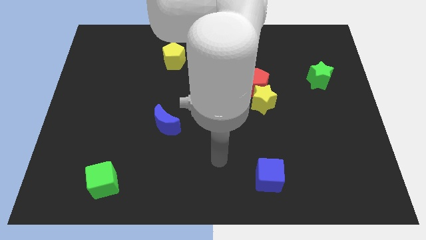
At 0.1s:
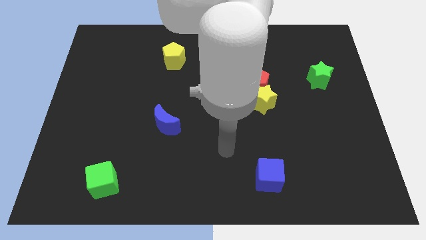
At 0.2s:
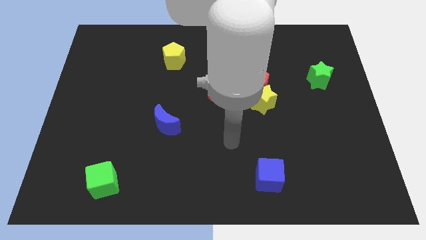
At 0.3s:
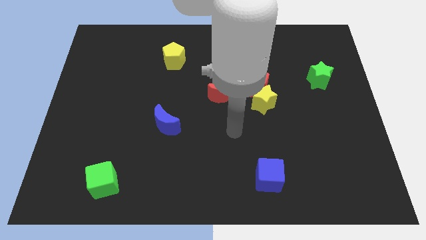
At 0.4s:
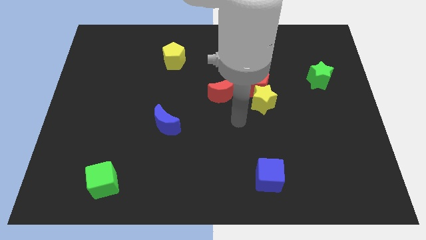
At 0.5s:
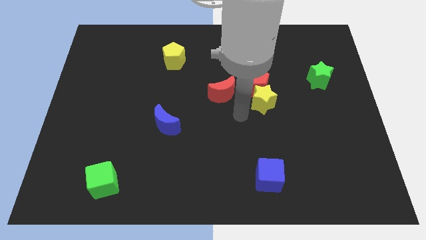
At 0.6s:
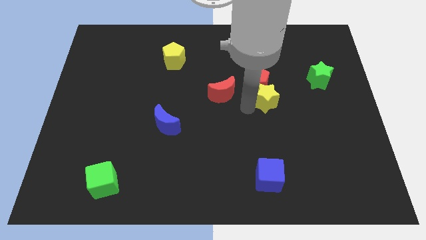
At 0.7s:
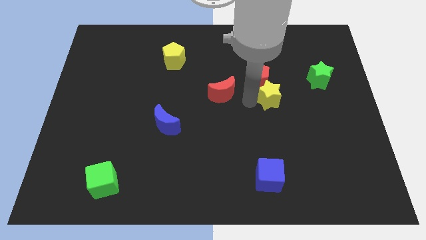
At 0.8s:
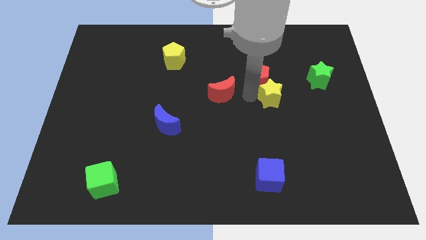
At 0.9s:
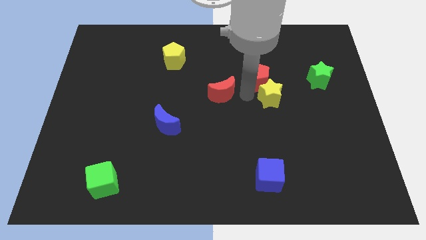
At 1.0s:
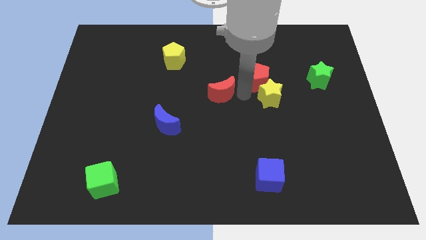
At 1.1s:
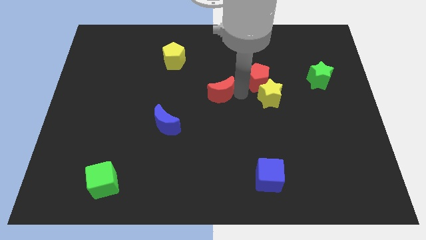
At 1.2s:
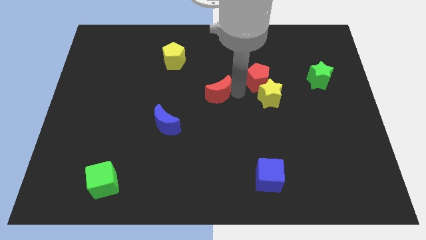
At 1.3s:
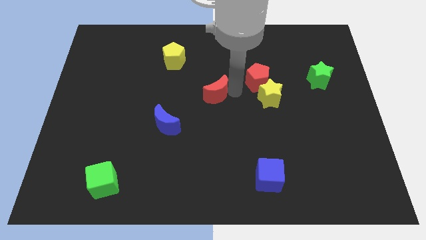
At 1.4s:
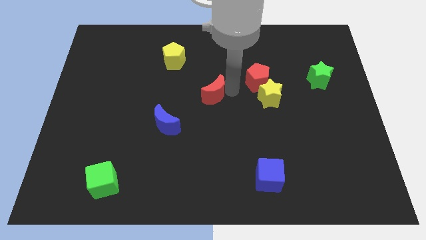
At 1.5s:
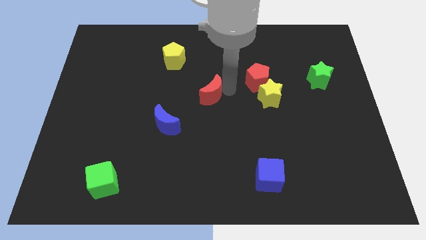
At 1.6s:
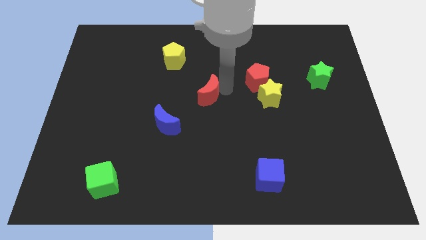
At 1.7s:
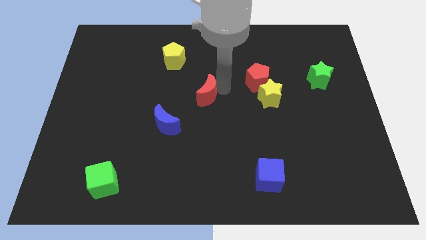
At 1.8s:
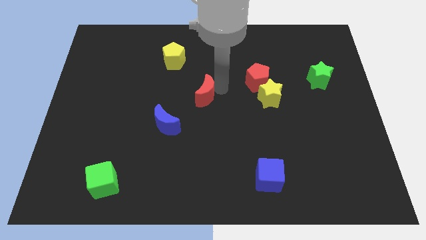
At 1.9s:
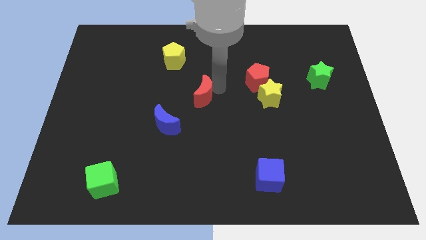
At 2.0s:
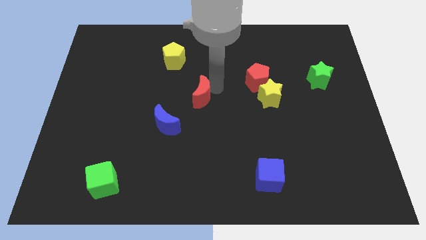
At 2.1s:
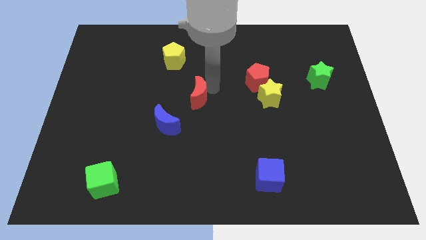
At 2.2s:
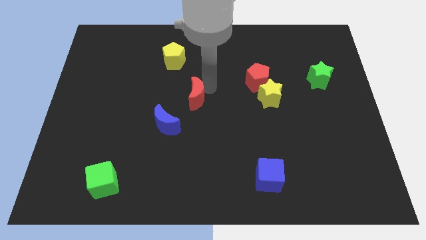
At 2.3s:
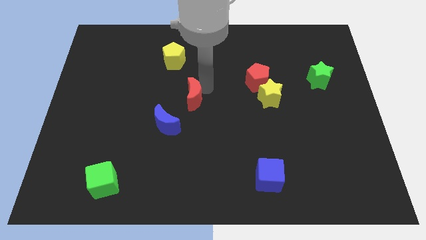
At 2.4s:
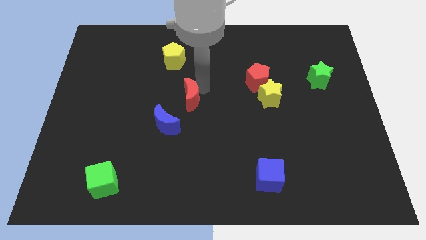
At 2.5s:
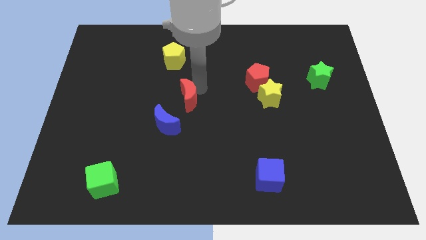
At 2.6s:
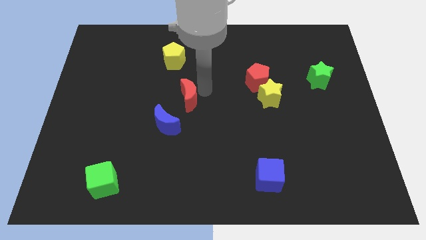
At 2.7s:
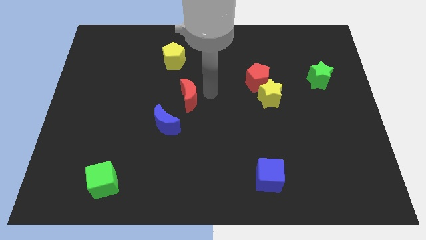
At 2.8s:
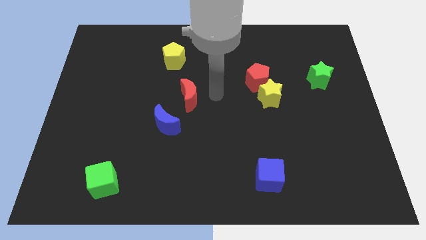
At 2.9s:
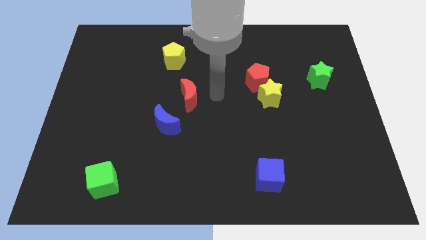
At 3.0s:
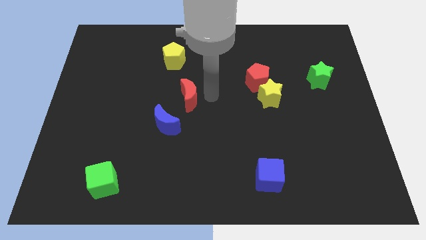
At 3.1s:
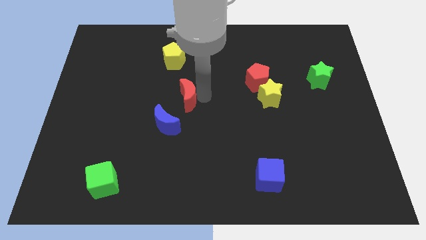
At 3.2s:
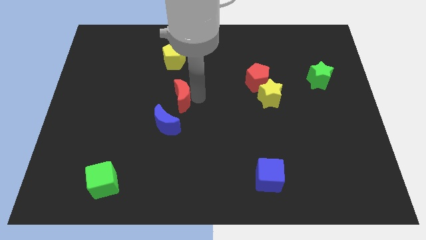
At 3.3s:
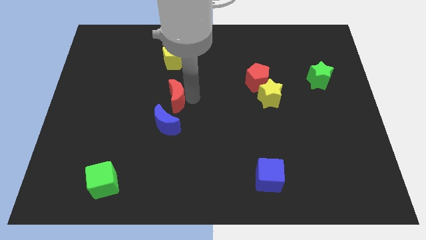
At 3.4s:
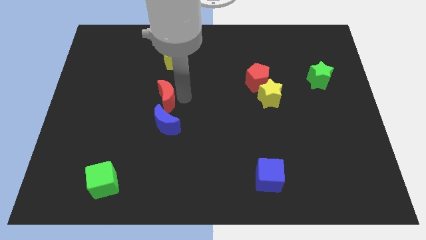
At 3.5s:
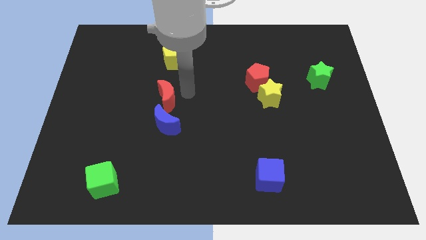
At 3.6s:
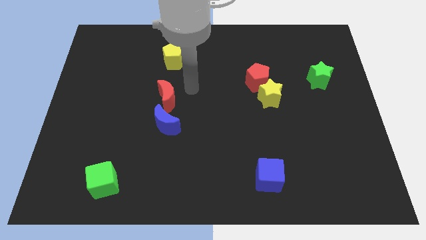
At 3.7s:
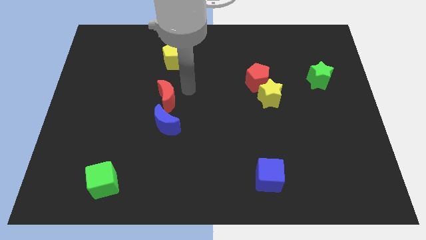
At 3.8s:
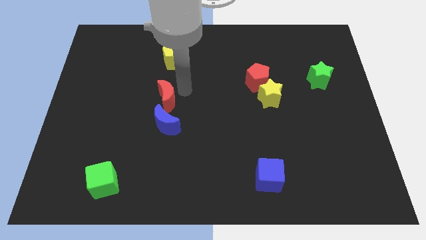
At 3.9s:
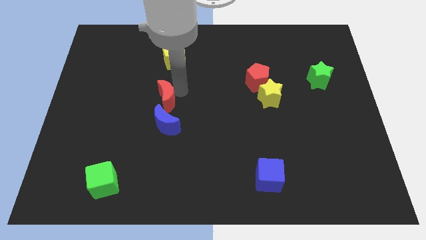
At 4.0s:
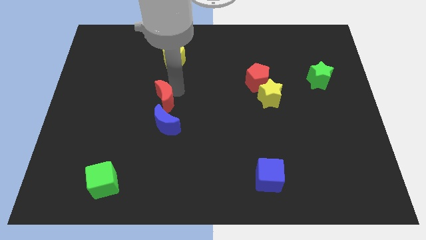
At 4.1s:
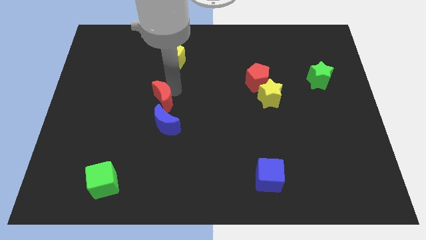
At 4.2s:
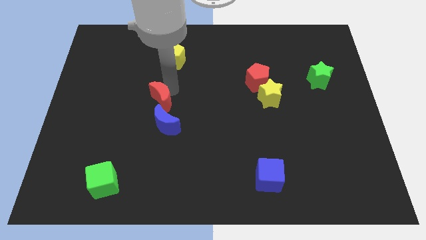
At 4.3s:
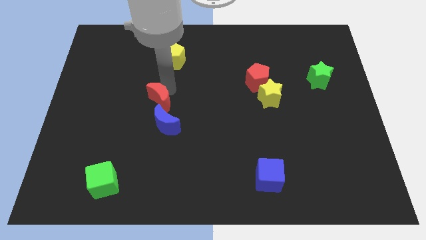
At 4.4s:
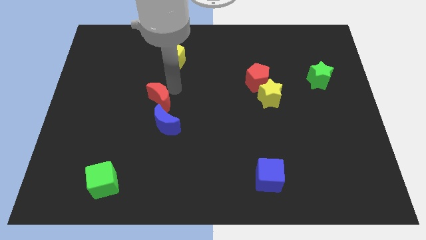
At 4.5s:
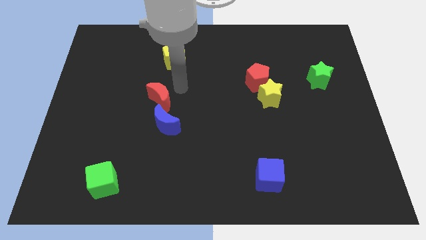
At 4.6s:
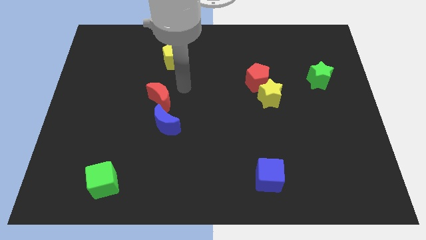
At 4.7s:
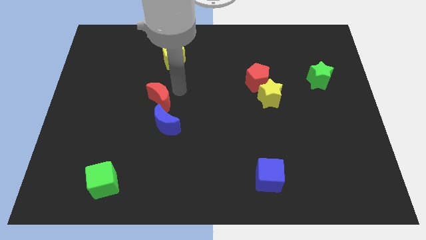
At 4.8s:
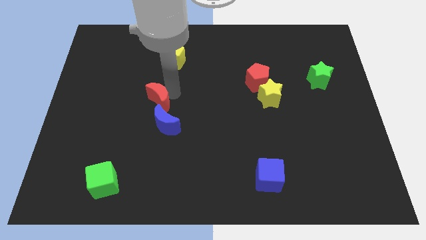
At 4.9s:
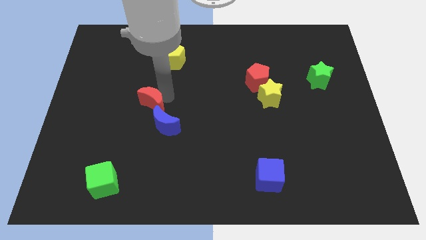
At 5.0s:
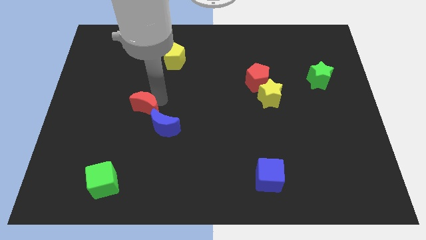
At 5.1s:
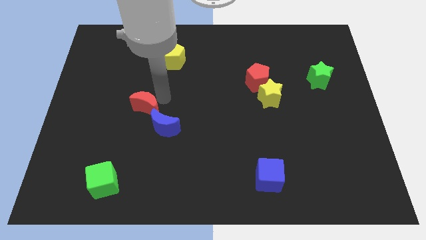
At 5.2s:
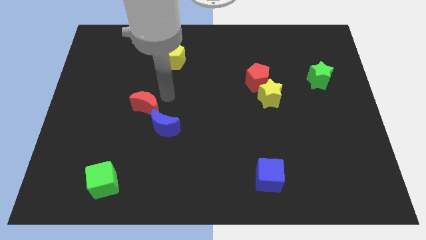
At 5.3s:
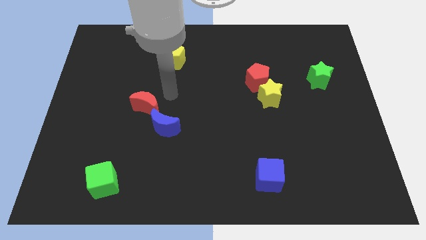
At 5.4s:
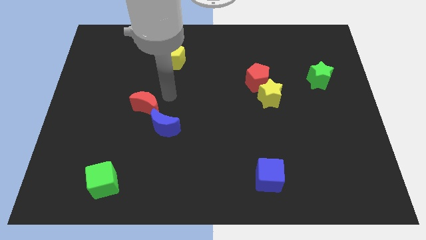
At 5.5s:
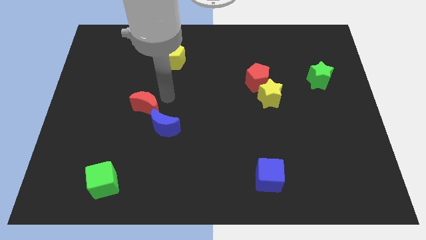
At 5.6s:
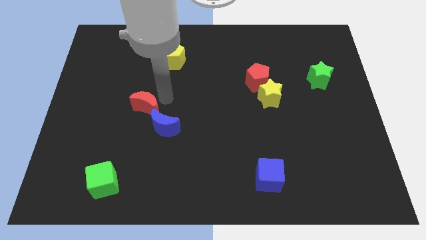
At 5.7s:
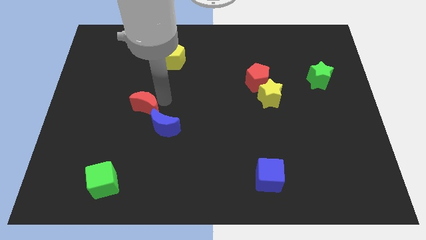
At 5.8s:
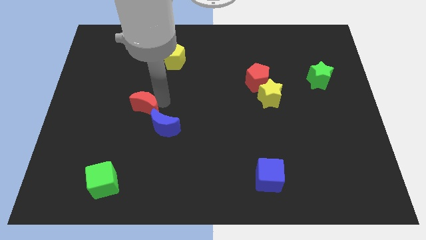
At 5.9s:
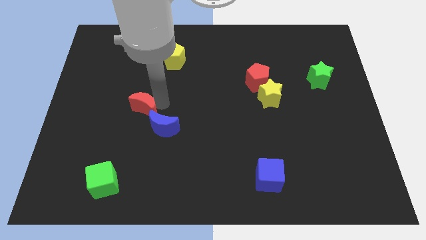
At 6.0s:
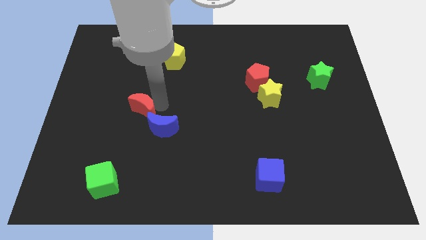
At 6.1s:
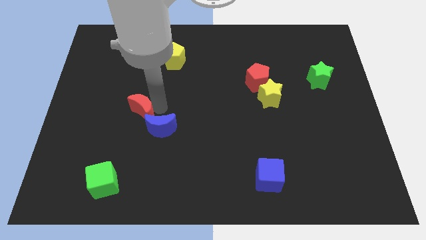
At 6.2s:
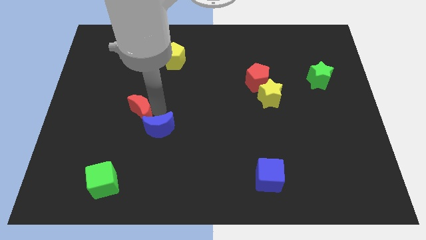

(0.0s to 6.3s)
slide the red moon to the left side of the blue moon
